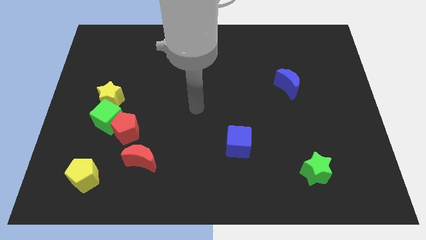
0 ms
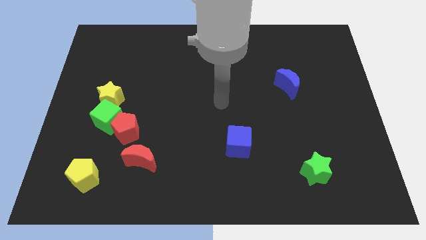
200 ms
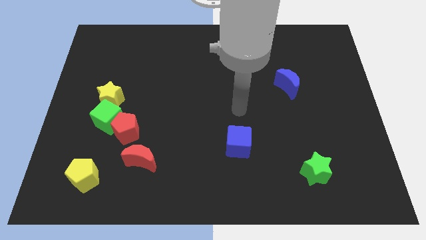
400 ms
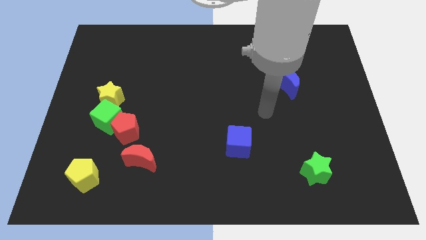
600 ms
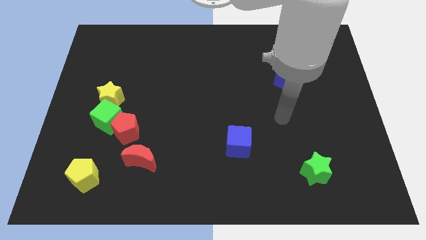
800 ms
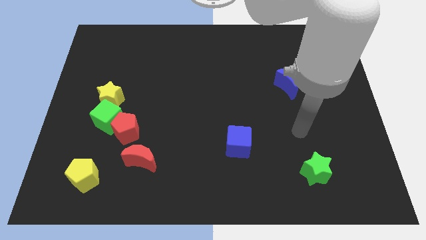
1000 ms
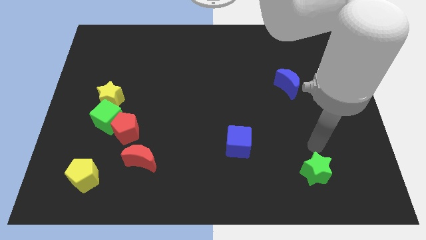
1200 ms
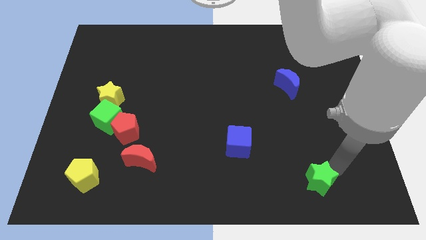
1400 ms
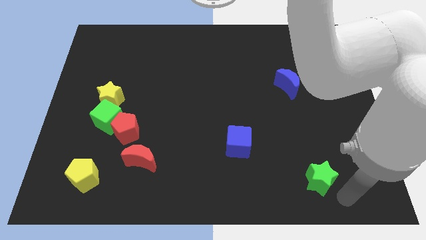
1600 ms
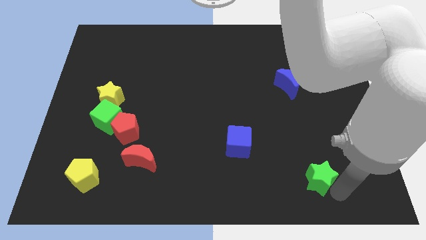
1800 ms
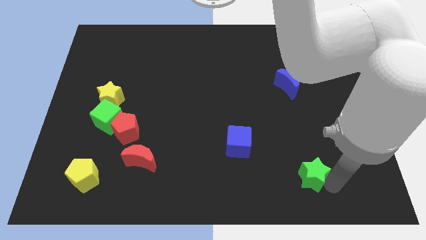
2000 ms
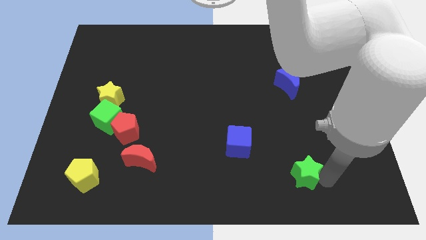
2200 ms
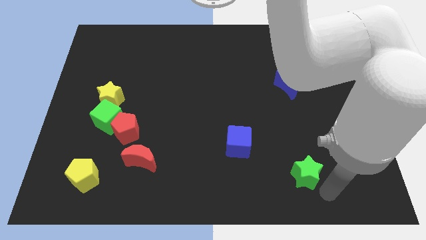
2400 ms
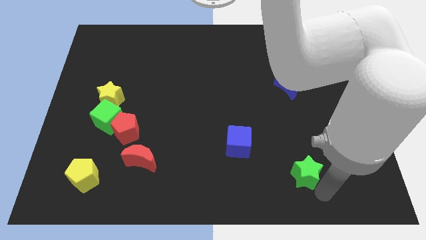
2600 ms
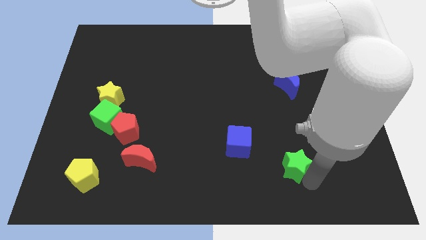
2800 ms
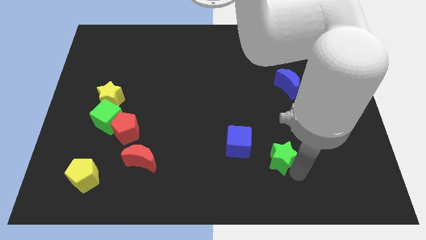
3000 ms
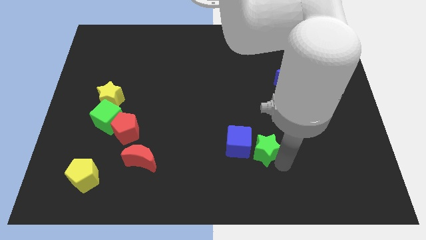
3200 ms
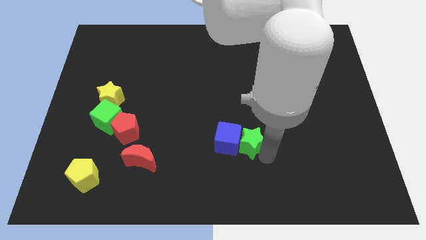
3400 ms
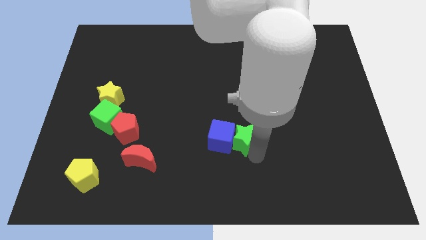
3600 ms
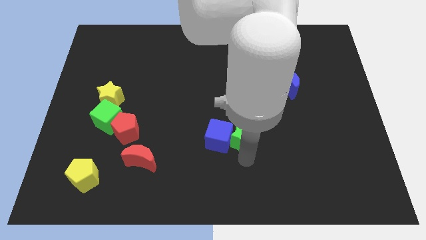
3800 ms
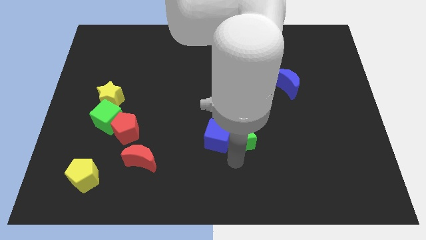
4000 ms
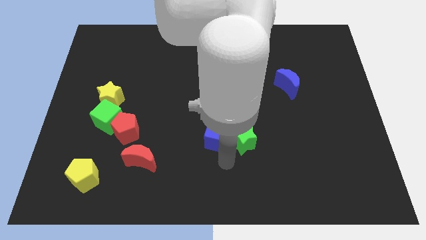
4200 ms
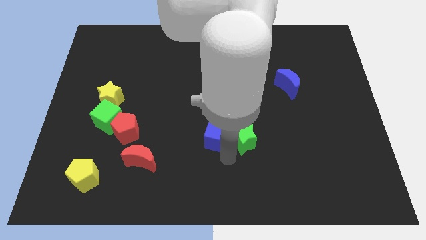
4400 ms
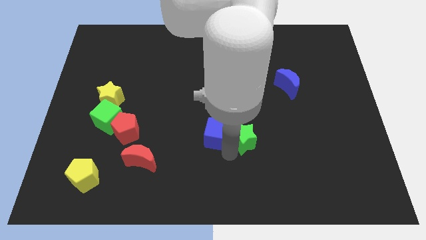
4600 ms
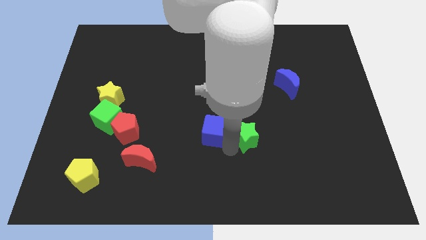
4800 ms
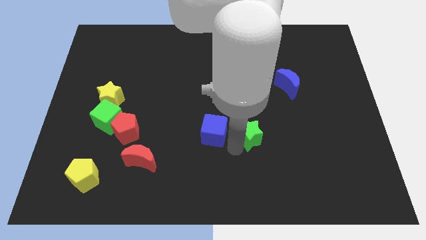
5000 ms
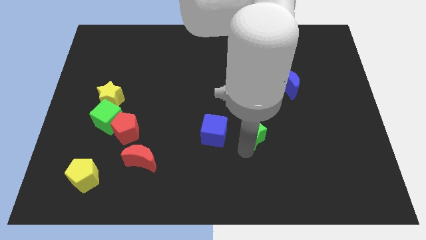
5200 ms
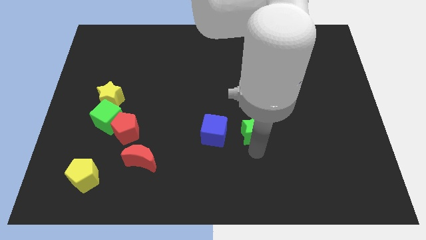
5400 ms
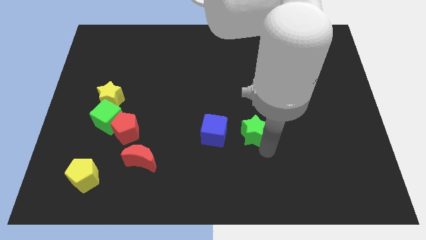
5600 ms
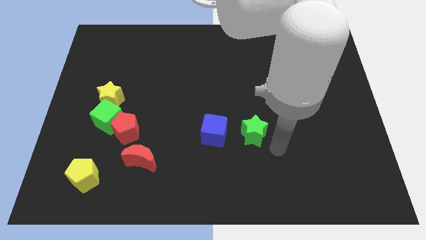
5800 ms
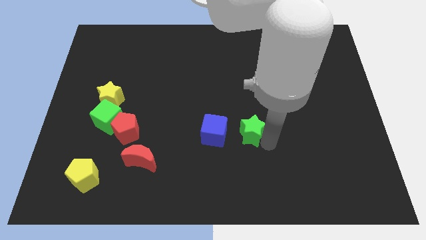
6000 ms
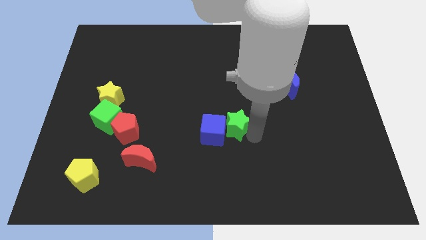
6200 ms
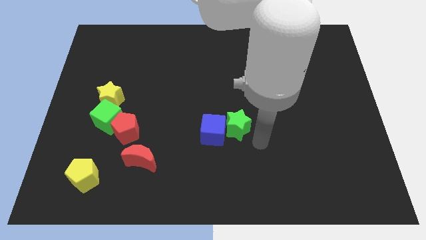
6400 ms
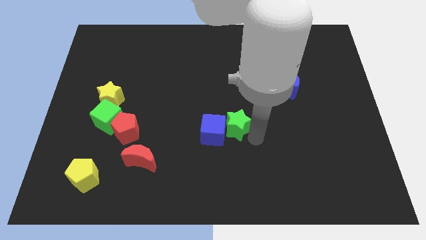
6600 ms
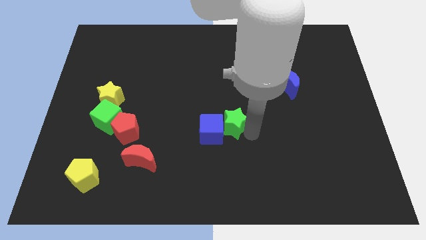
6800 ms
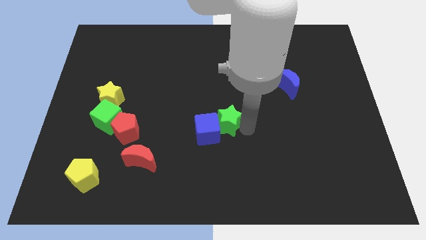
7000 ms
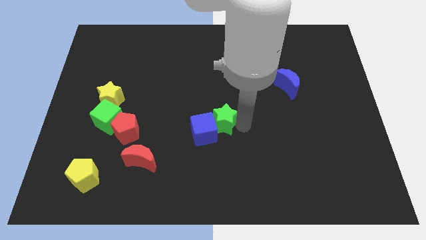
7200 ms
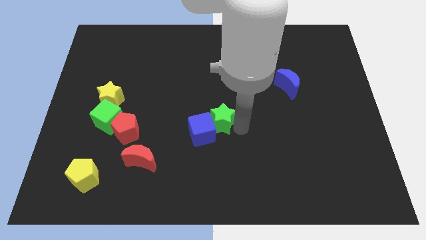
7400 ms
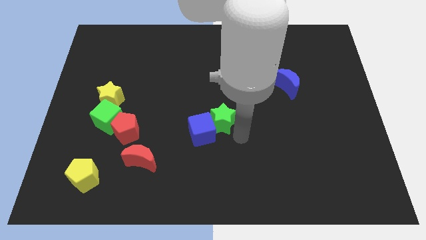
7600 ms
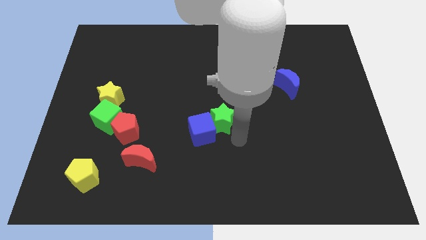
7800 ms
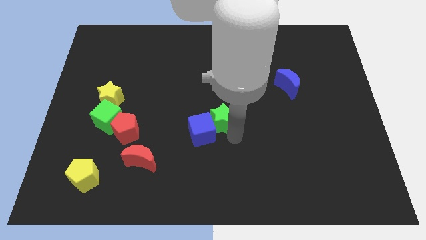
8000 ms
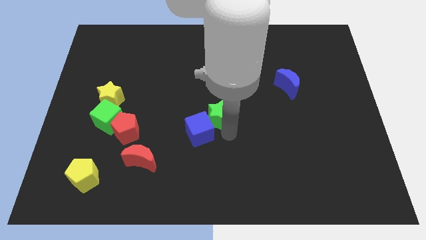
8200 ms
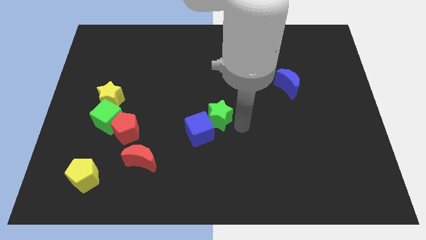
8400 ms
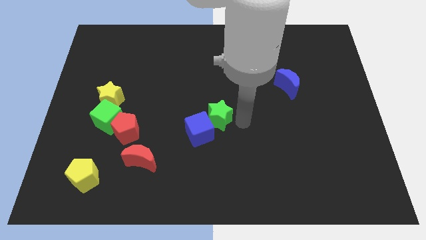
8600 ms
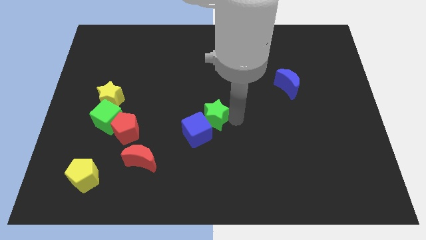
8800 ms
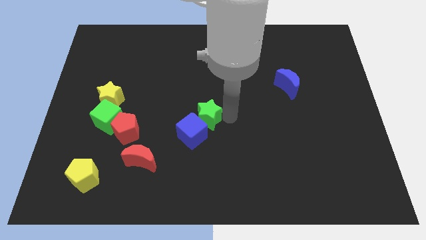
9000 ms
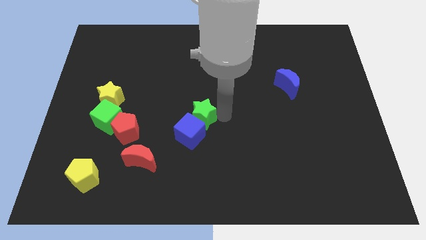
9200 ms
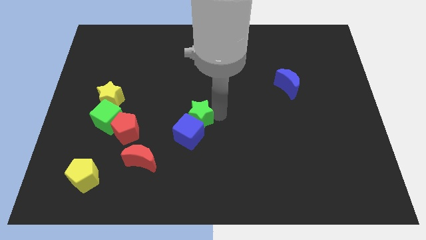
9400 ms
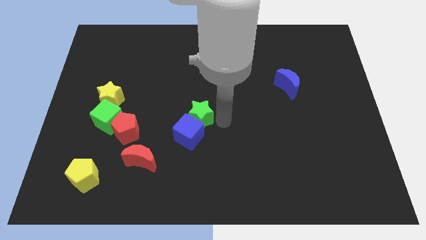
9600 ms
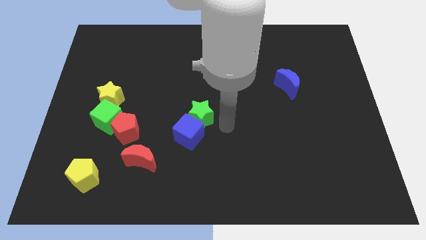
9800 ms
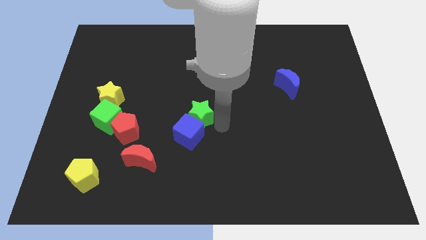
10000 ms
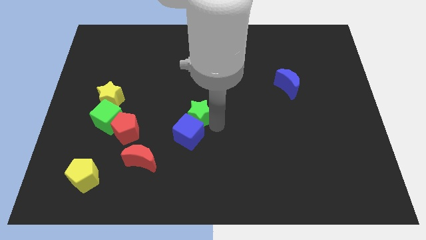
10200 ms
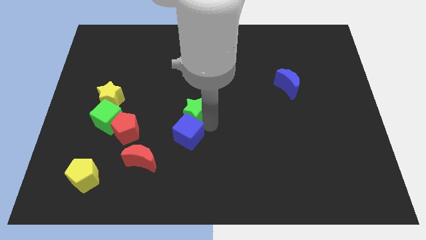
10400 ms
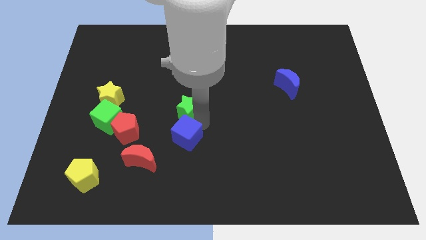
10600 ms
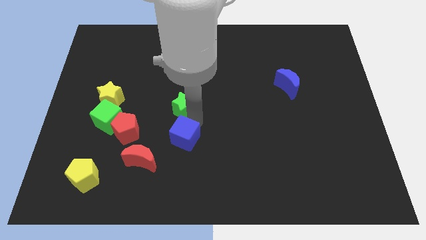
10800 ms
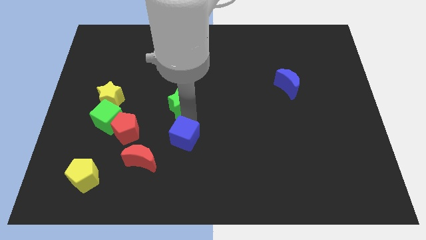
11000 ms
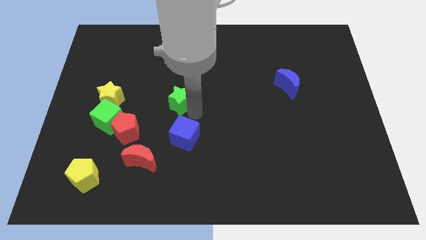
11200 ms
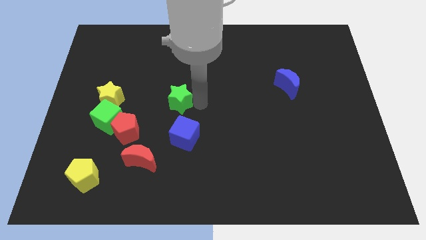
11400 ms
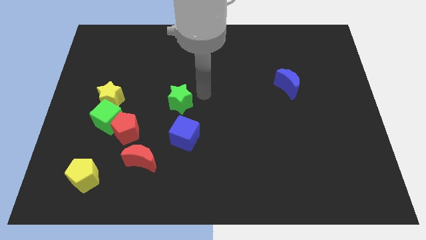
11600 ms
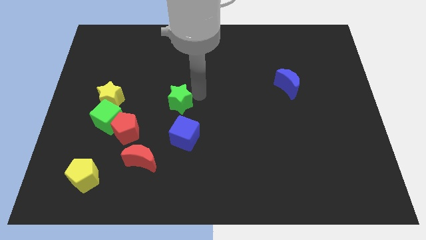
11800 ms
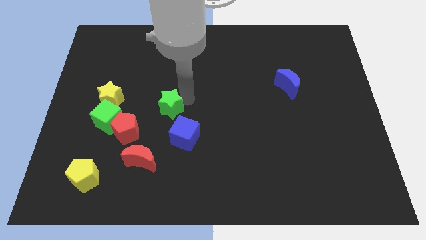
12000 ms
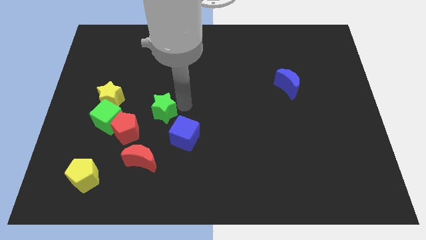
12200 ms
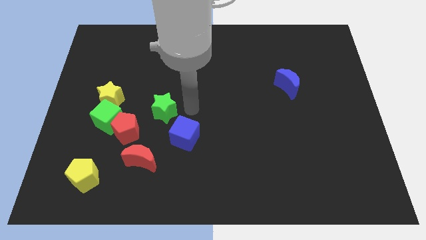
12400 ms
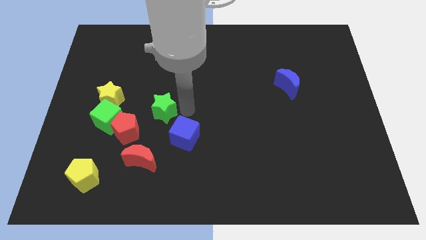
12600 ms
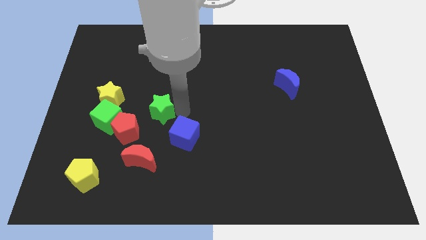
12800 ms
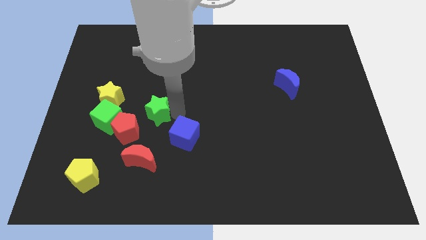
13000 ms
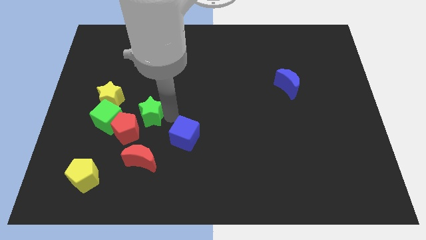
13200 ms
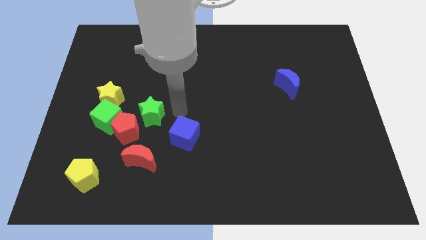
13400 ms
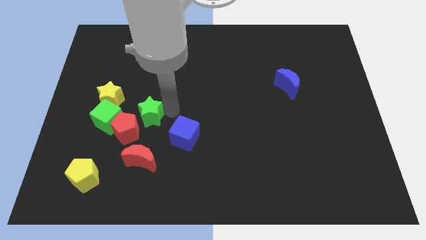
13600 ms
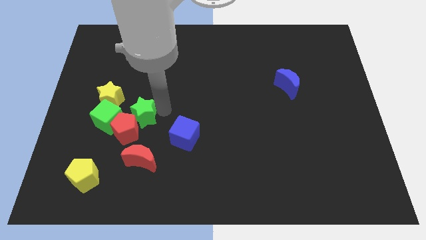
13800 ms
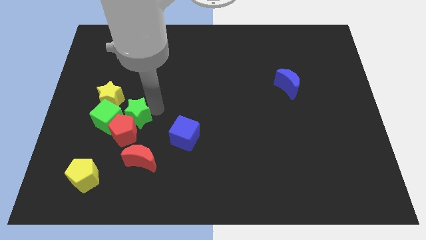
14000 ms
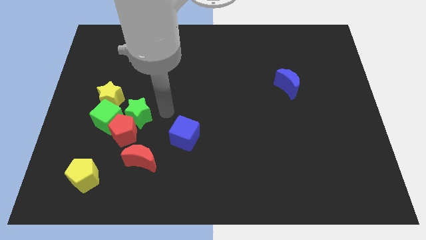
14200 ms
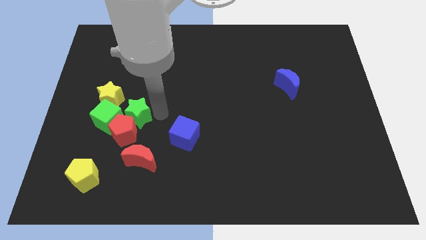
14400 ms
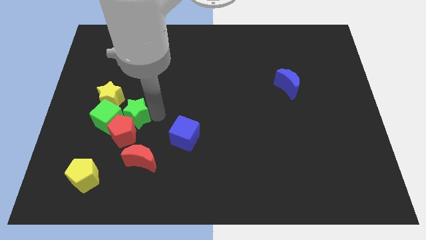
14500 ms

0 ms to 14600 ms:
move the green star close to the green cube

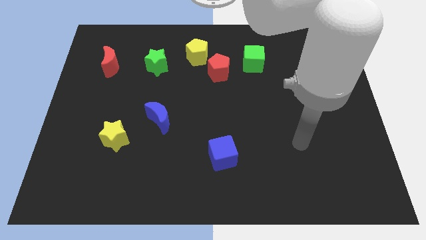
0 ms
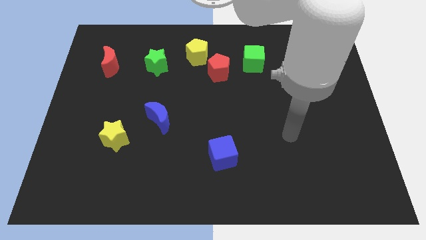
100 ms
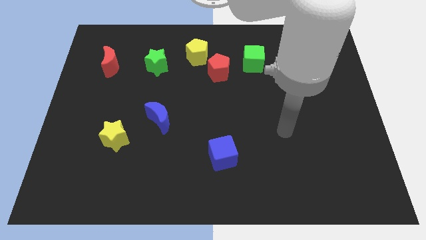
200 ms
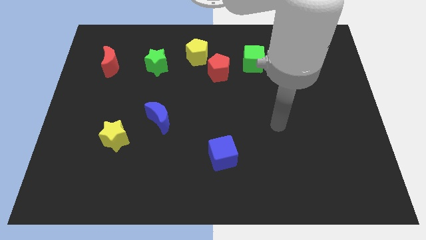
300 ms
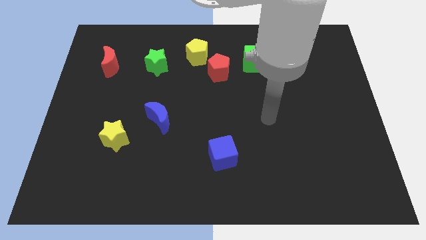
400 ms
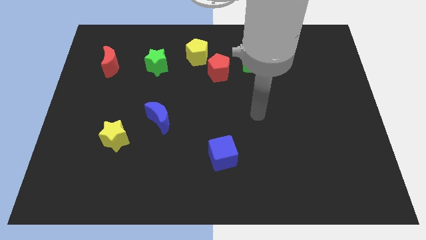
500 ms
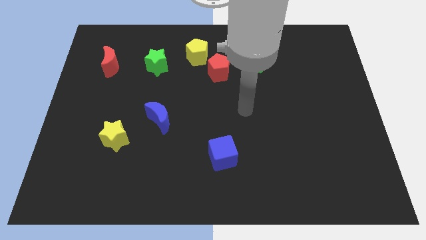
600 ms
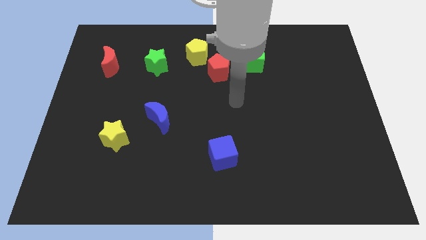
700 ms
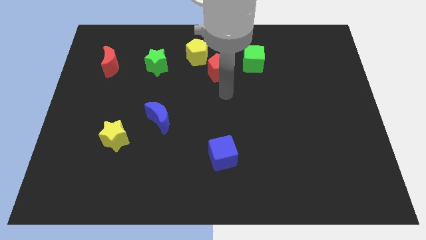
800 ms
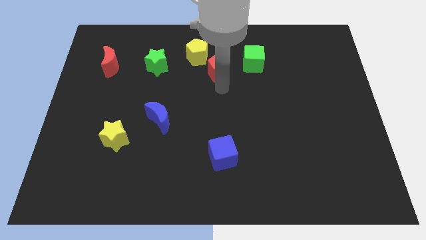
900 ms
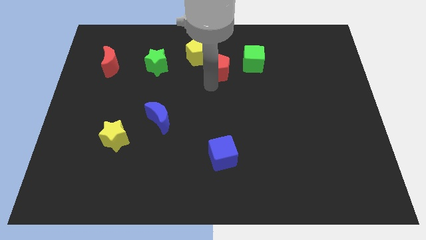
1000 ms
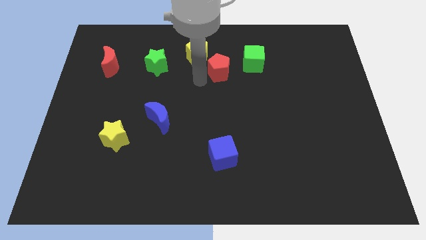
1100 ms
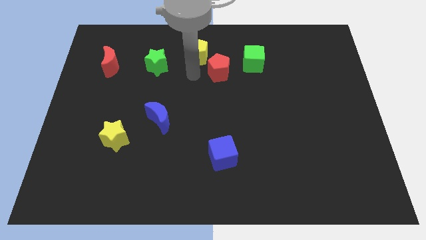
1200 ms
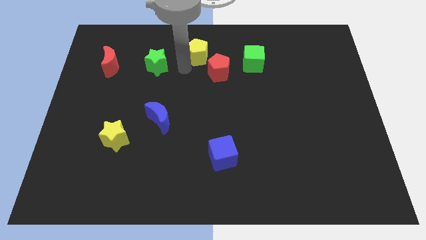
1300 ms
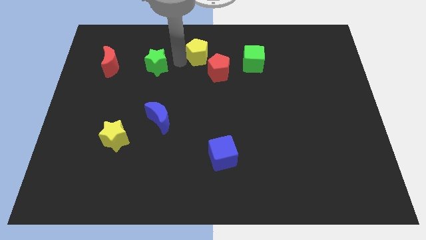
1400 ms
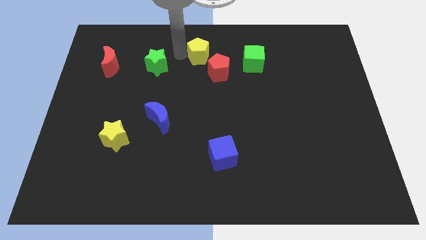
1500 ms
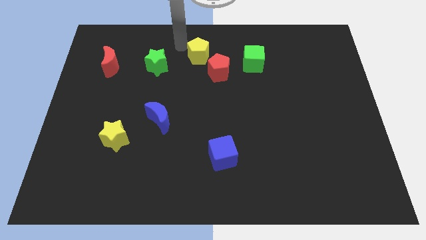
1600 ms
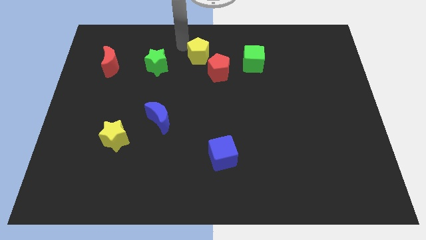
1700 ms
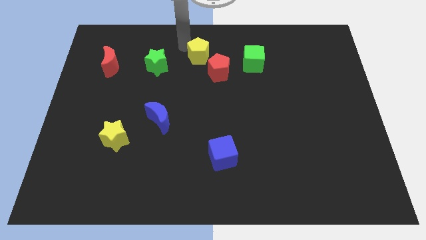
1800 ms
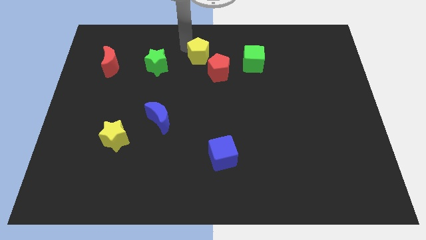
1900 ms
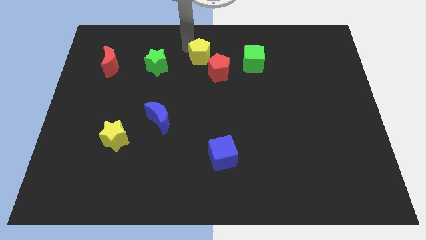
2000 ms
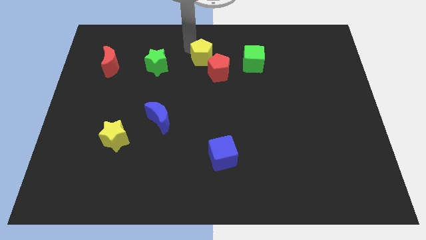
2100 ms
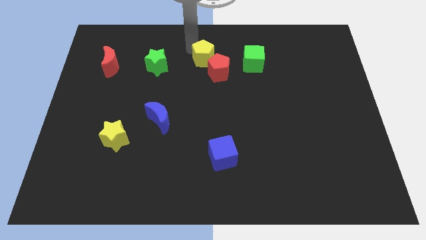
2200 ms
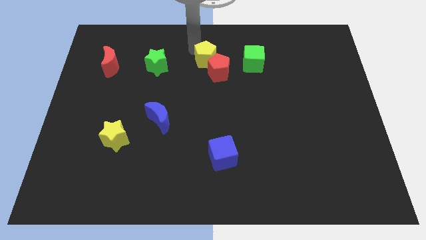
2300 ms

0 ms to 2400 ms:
slide the yellow pentagon to the red pentagon
